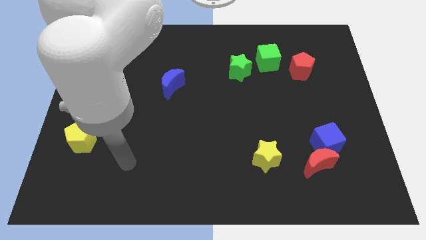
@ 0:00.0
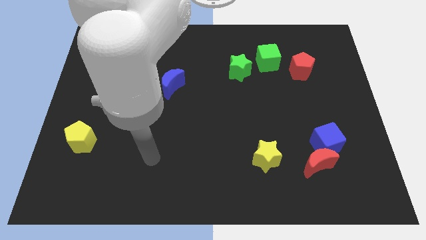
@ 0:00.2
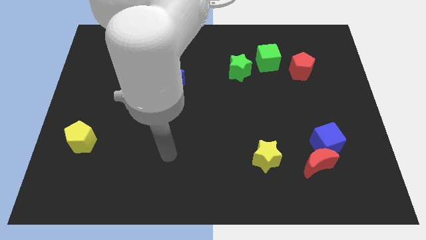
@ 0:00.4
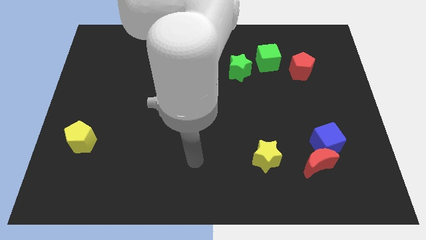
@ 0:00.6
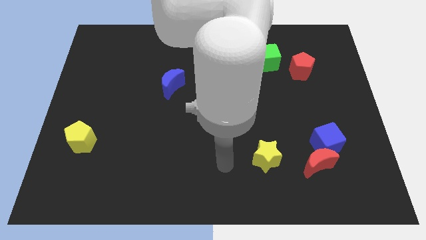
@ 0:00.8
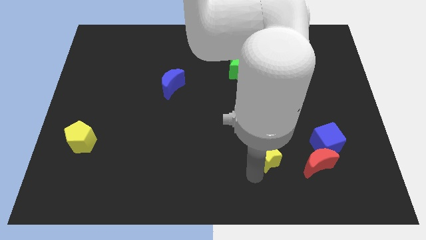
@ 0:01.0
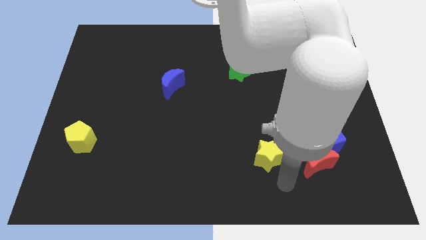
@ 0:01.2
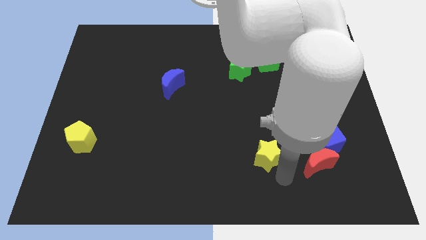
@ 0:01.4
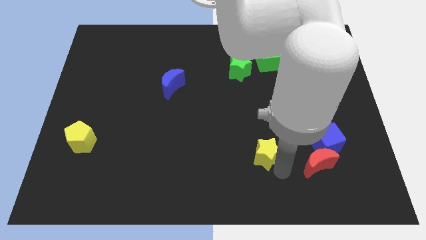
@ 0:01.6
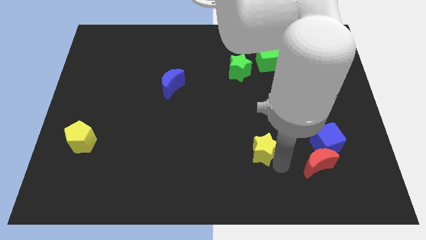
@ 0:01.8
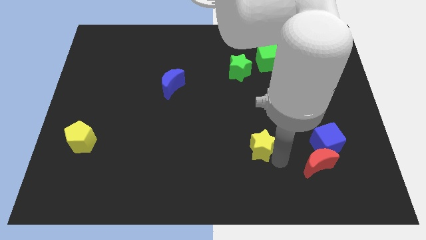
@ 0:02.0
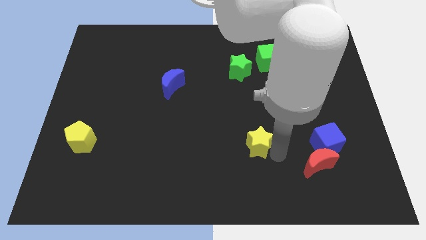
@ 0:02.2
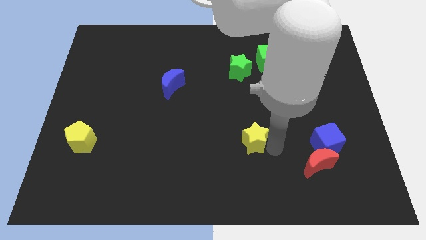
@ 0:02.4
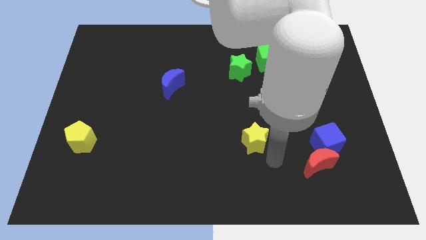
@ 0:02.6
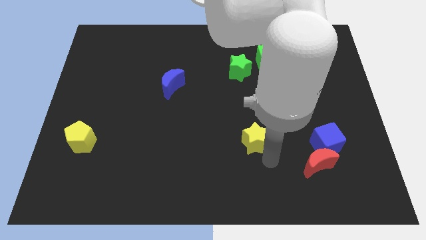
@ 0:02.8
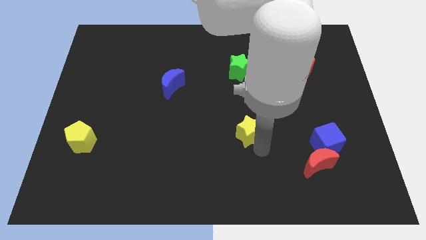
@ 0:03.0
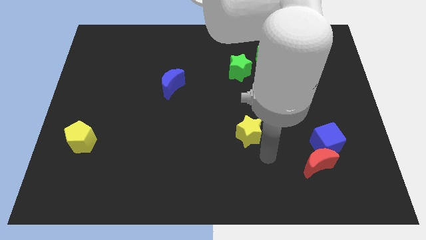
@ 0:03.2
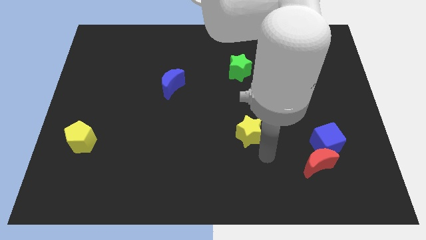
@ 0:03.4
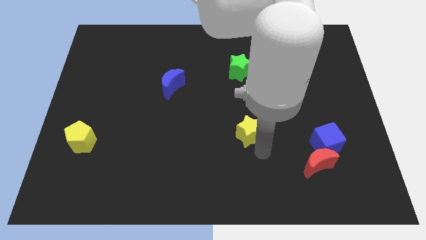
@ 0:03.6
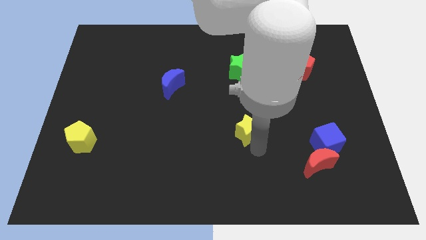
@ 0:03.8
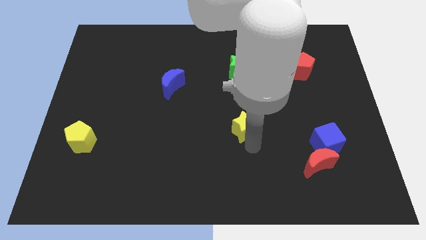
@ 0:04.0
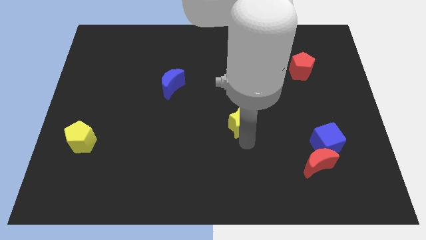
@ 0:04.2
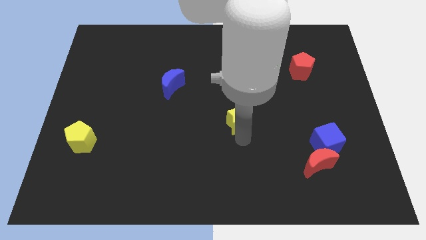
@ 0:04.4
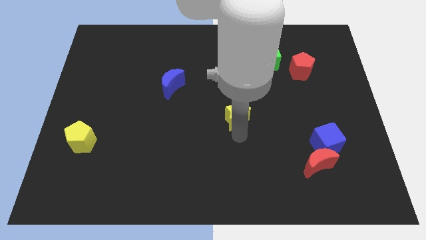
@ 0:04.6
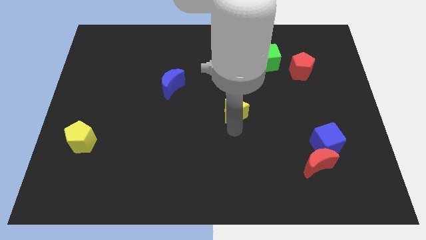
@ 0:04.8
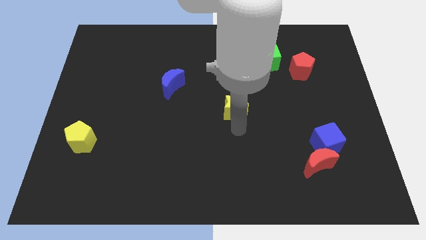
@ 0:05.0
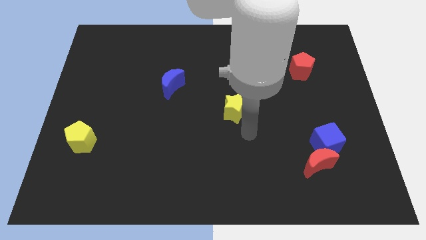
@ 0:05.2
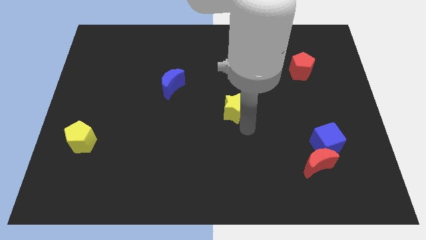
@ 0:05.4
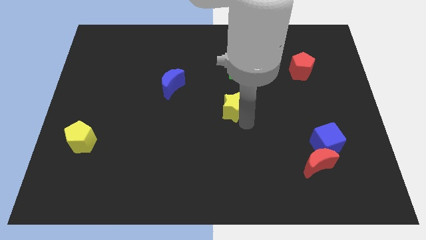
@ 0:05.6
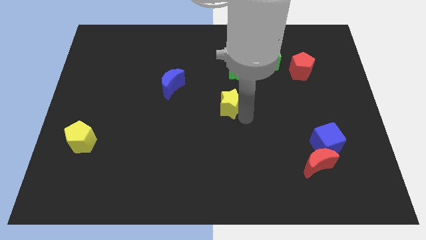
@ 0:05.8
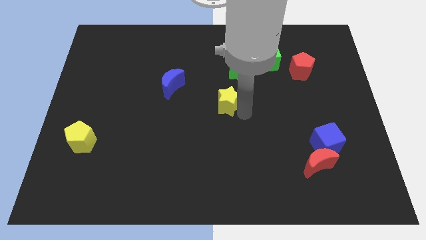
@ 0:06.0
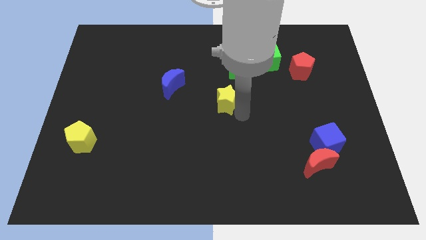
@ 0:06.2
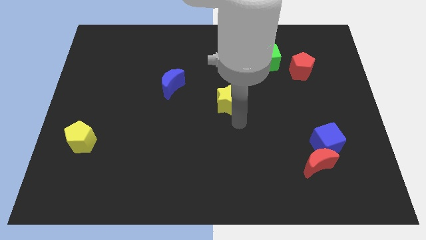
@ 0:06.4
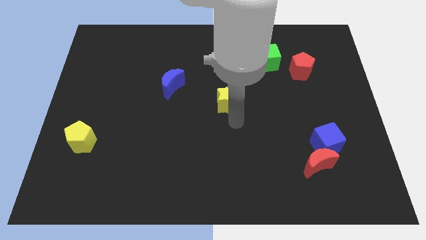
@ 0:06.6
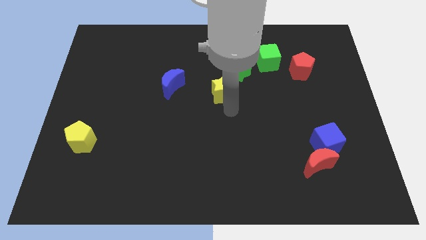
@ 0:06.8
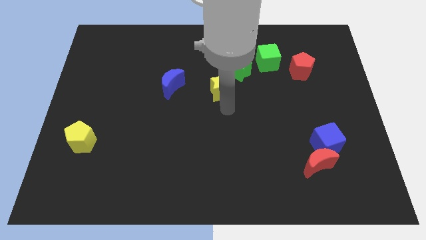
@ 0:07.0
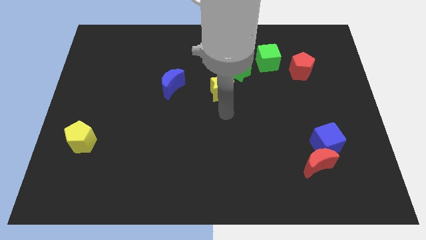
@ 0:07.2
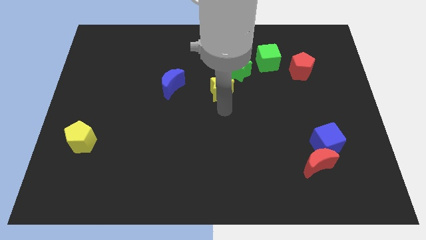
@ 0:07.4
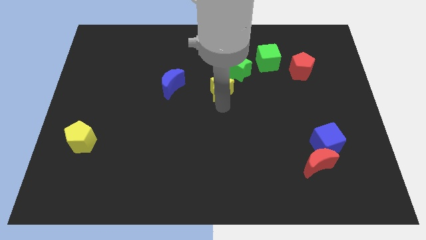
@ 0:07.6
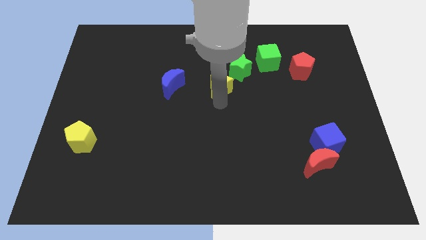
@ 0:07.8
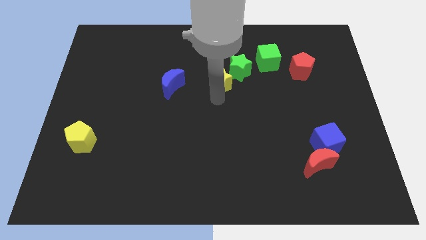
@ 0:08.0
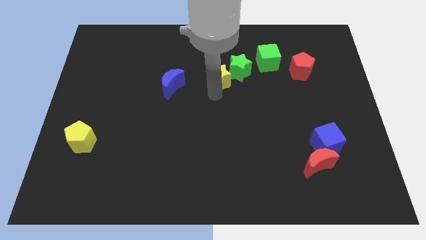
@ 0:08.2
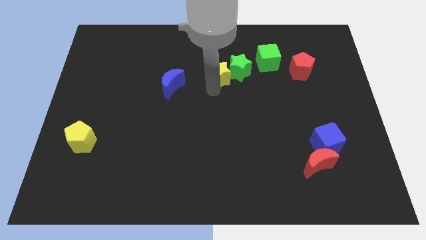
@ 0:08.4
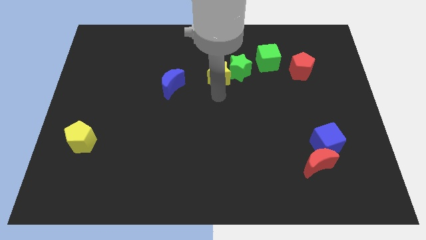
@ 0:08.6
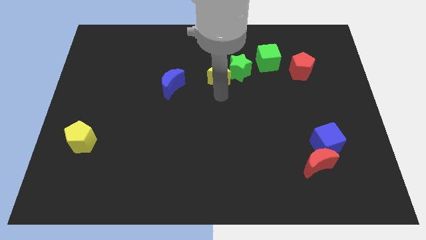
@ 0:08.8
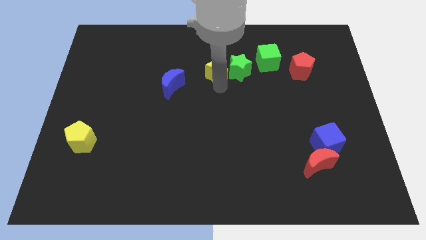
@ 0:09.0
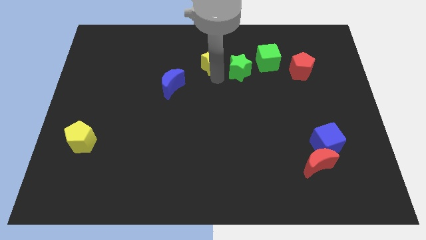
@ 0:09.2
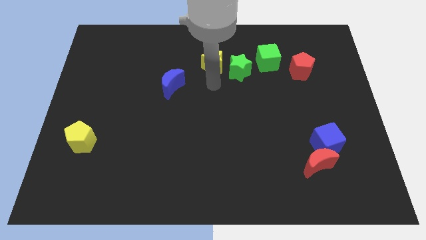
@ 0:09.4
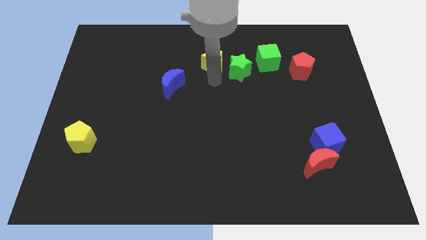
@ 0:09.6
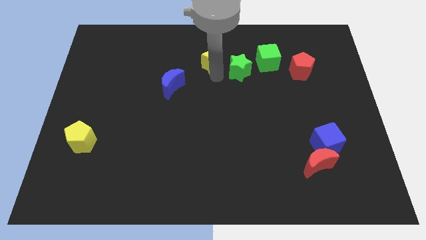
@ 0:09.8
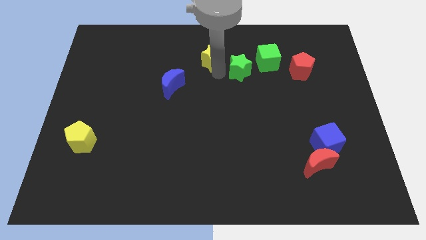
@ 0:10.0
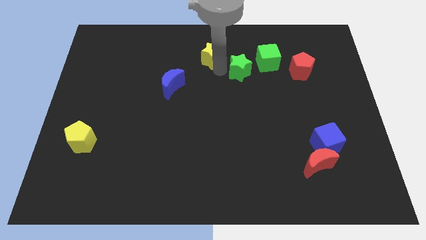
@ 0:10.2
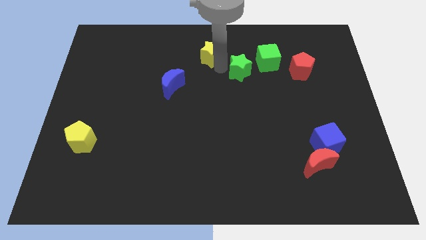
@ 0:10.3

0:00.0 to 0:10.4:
put the yellow star to the towards your base

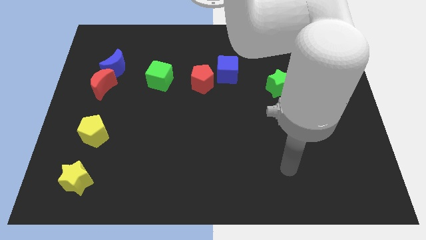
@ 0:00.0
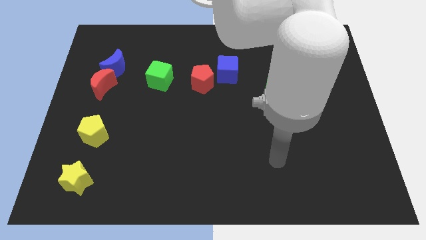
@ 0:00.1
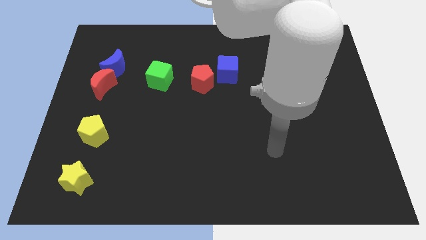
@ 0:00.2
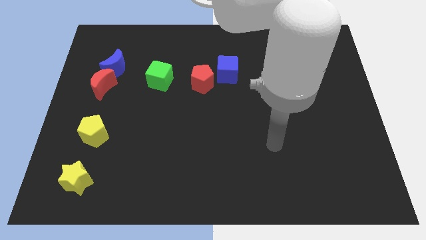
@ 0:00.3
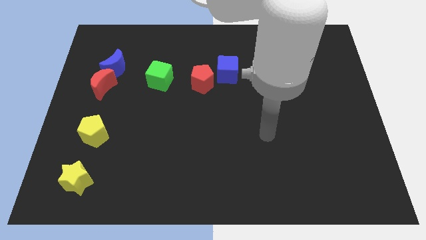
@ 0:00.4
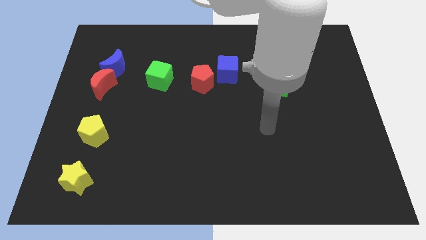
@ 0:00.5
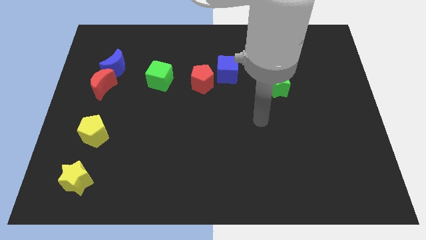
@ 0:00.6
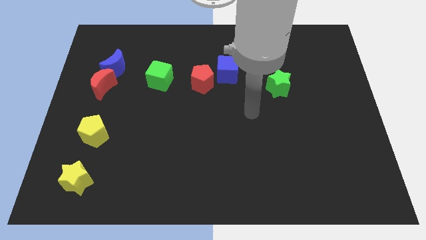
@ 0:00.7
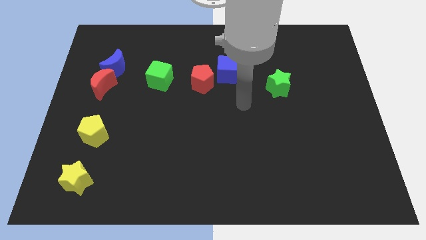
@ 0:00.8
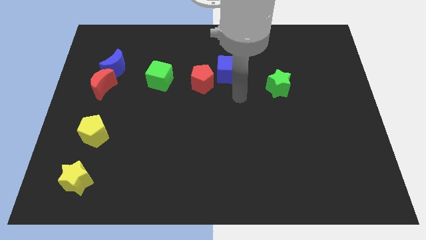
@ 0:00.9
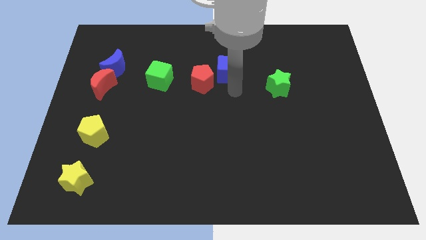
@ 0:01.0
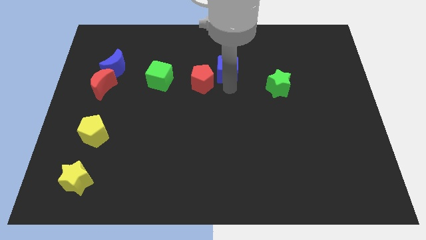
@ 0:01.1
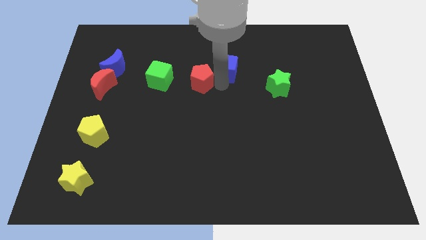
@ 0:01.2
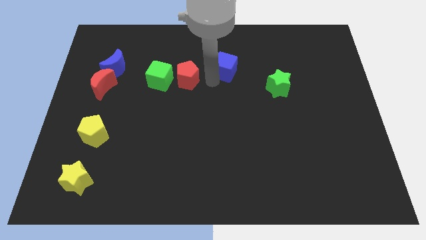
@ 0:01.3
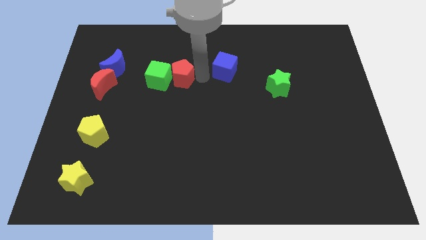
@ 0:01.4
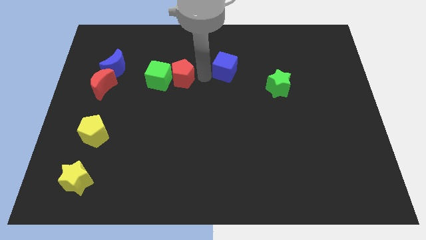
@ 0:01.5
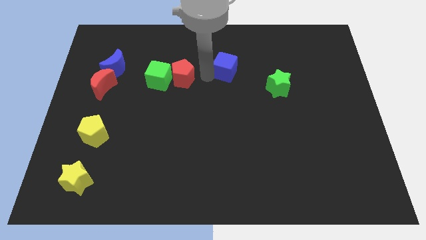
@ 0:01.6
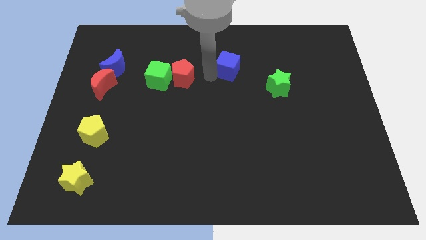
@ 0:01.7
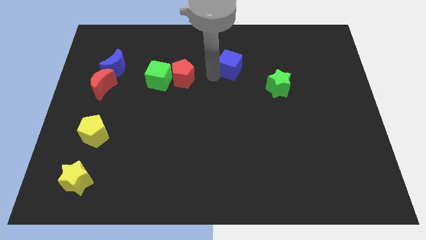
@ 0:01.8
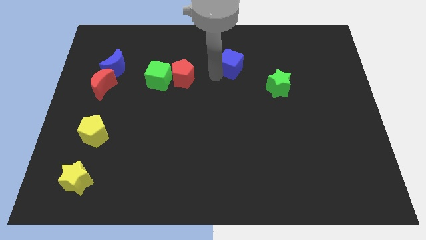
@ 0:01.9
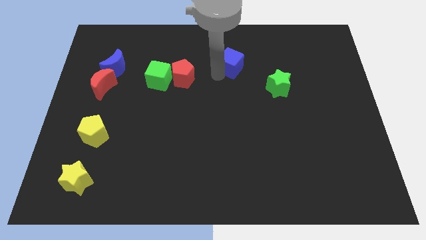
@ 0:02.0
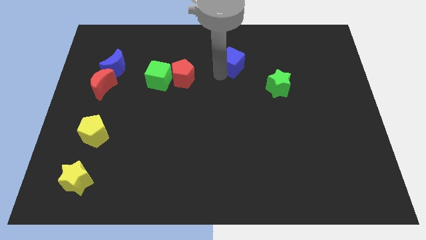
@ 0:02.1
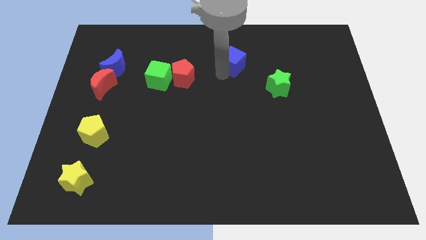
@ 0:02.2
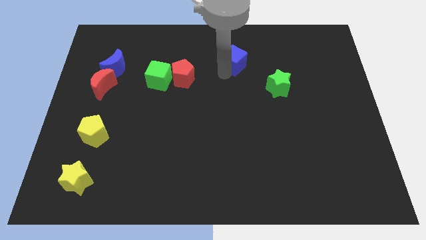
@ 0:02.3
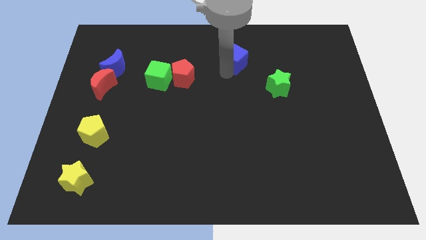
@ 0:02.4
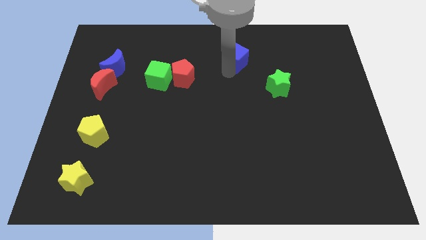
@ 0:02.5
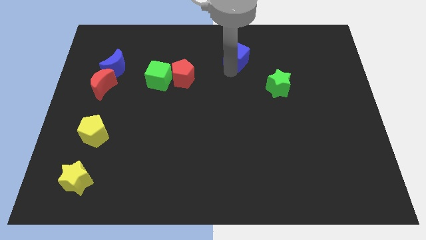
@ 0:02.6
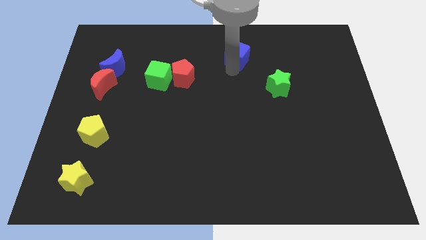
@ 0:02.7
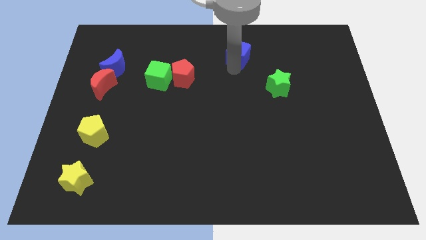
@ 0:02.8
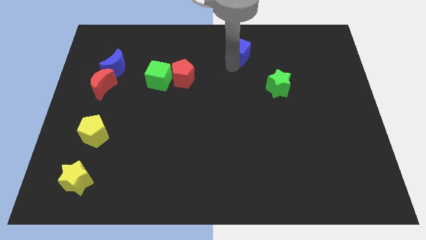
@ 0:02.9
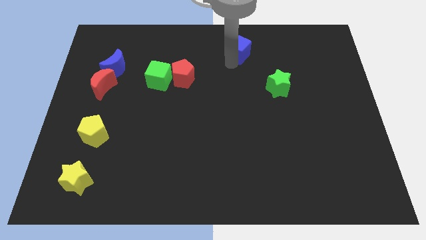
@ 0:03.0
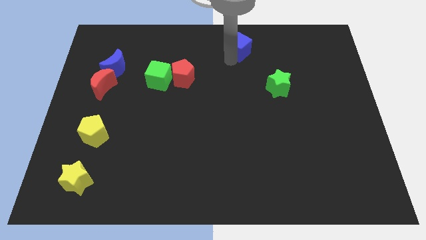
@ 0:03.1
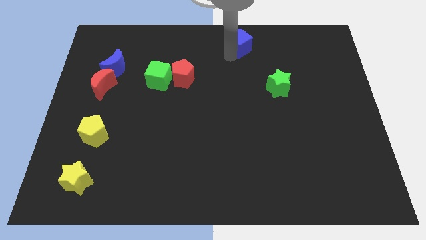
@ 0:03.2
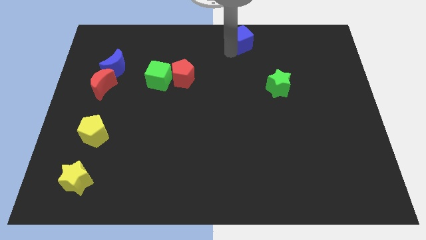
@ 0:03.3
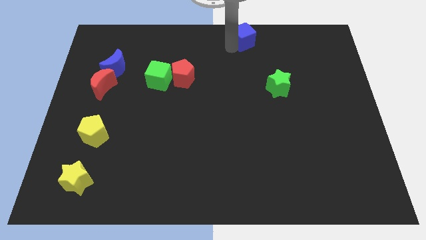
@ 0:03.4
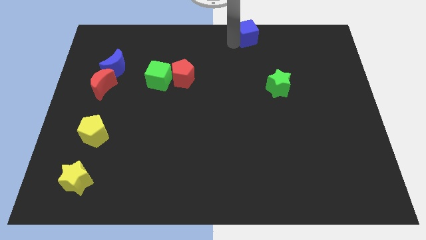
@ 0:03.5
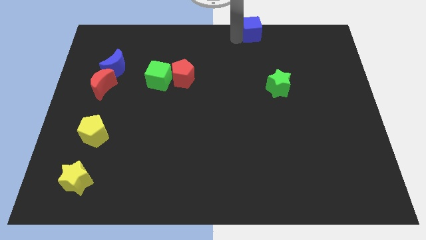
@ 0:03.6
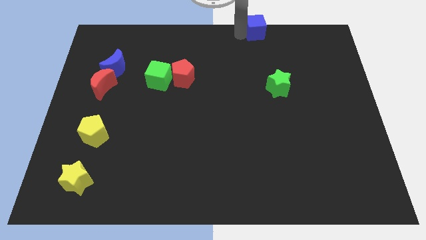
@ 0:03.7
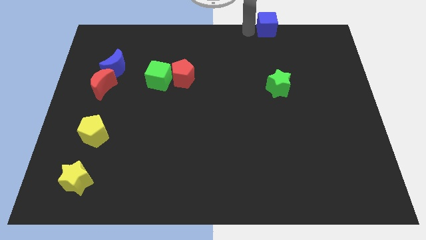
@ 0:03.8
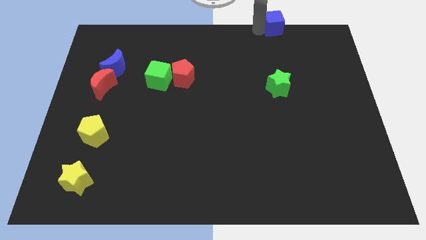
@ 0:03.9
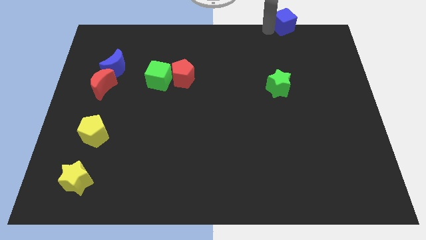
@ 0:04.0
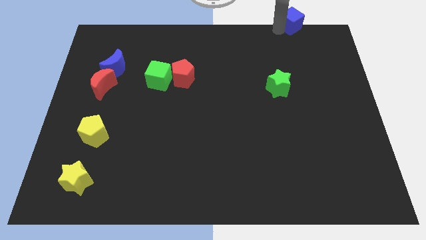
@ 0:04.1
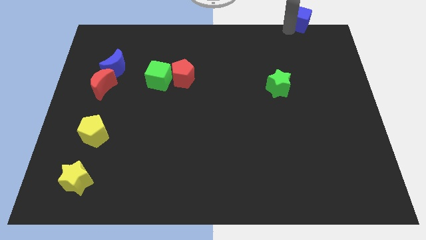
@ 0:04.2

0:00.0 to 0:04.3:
put the blue cube to the top right
